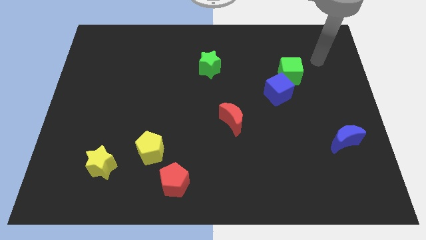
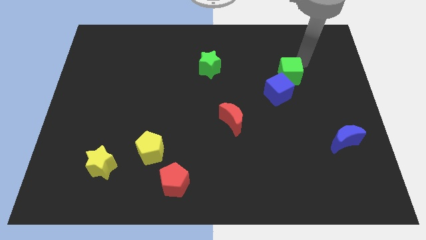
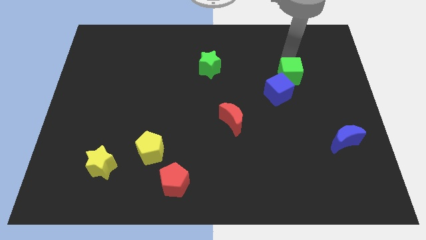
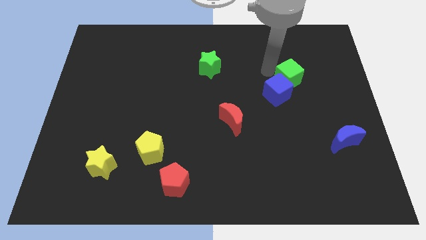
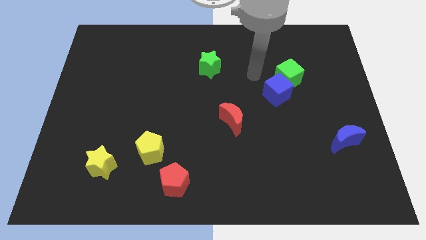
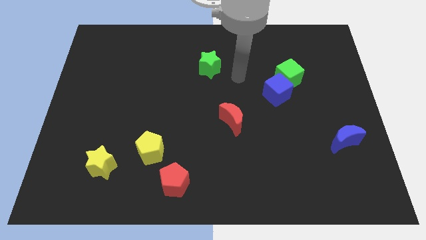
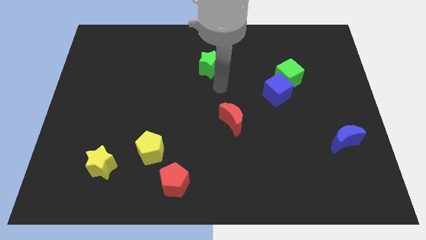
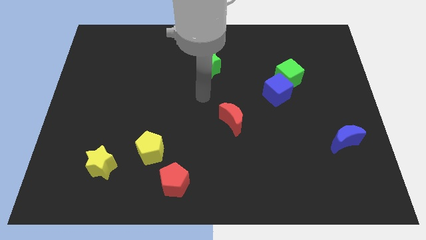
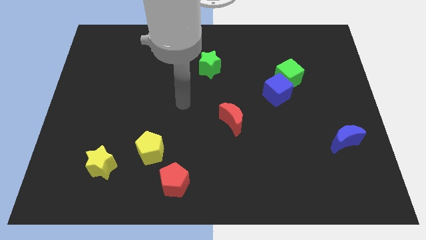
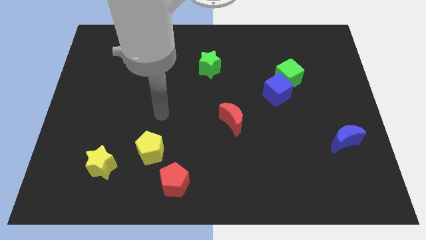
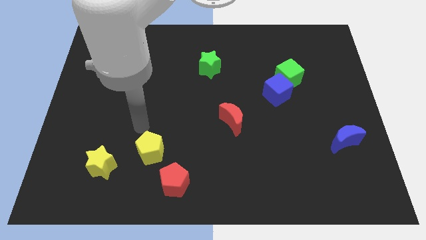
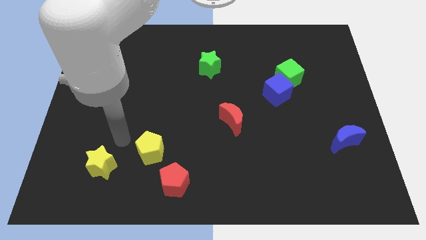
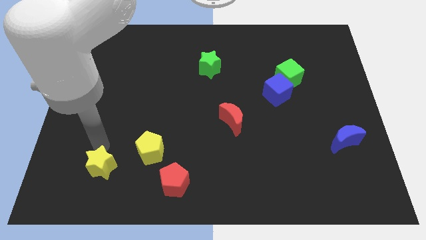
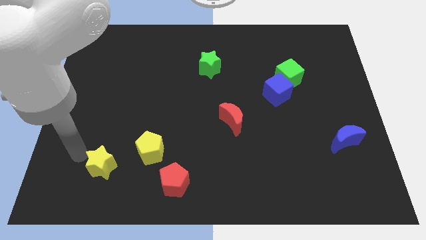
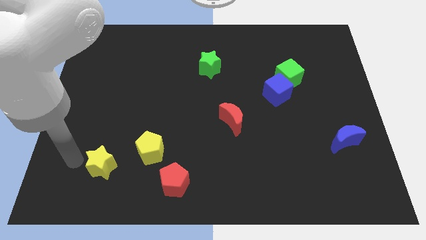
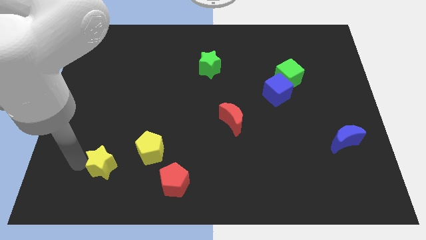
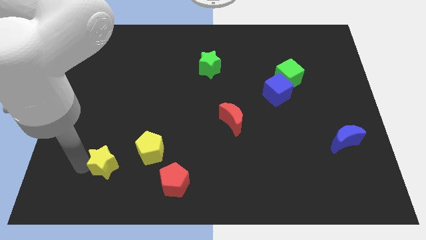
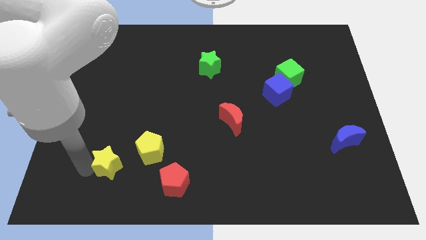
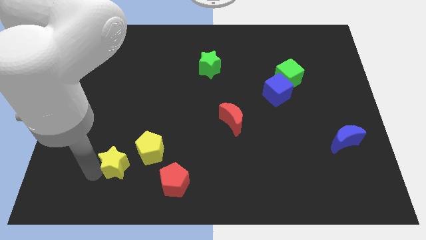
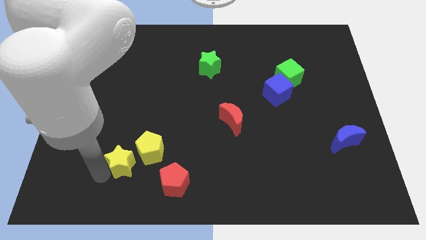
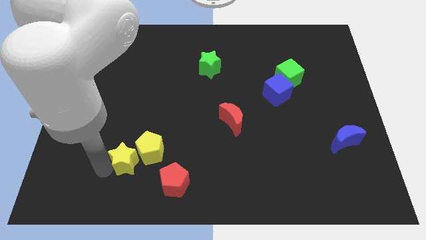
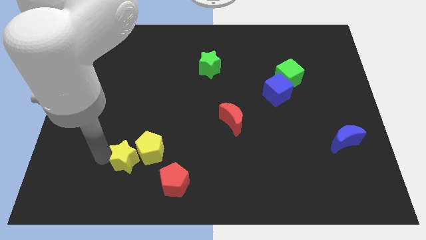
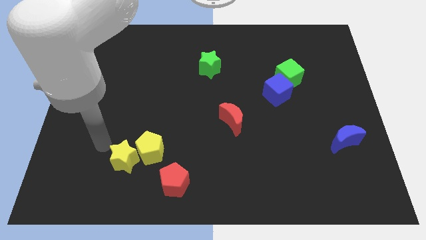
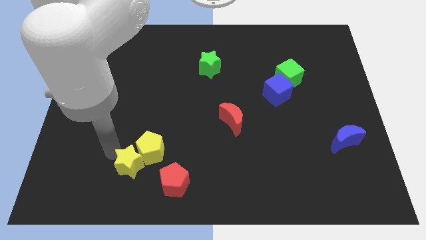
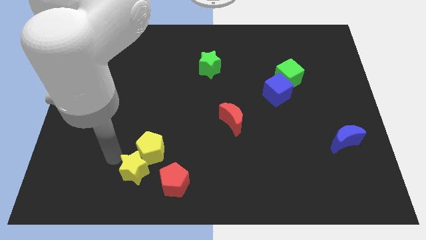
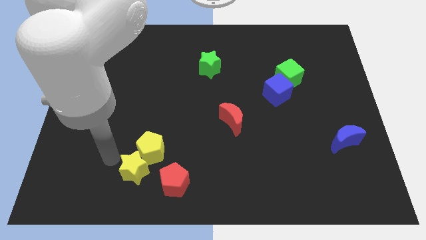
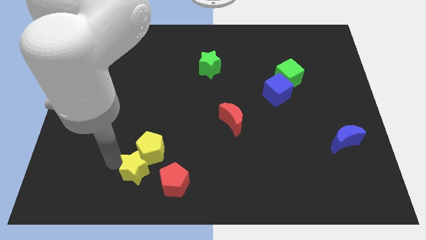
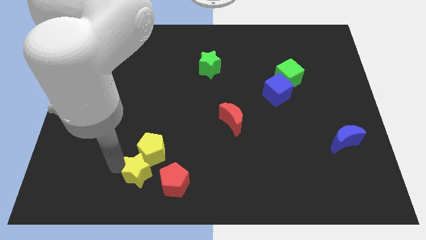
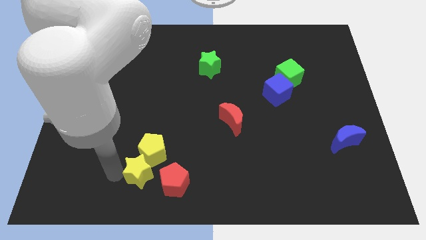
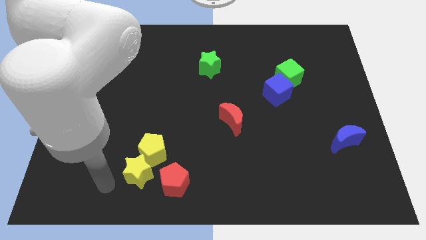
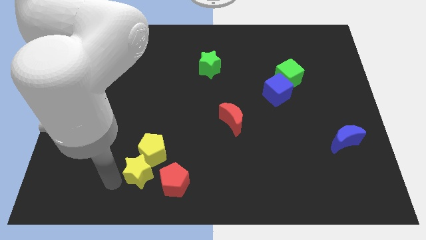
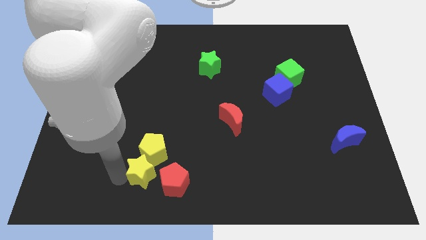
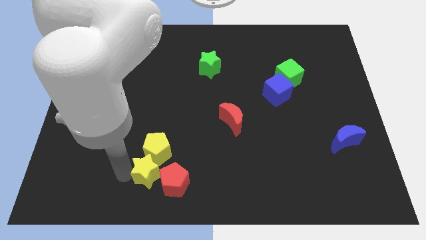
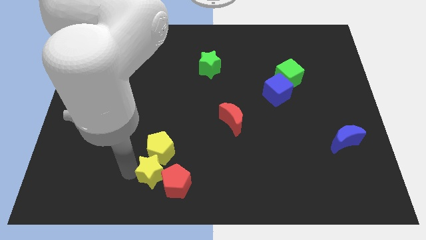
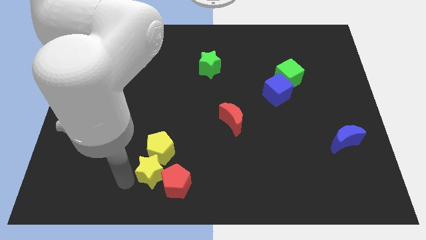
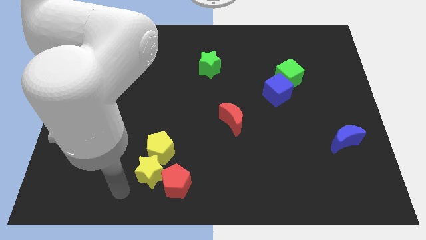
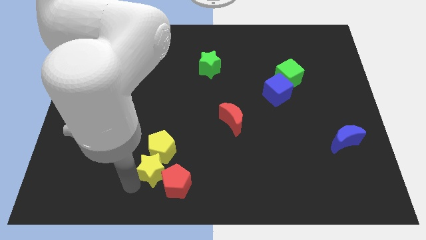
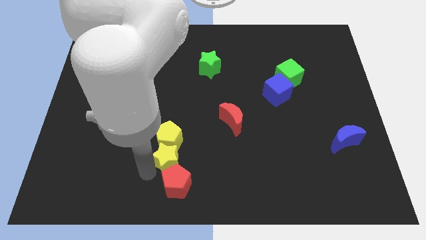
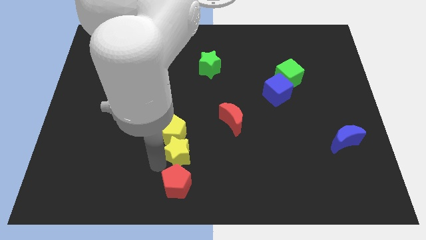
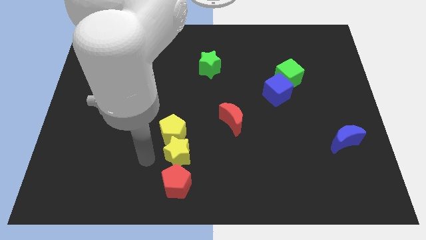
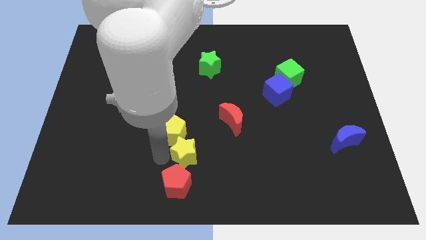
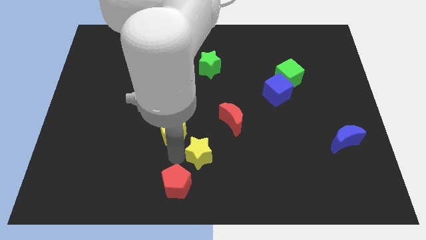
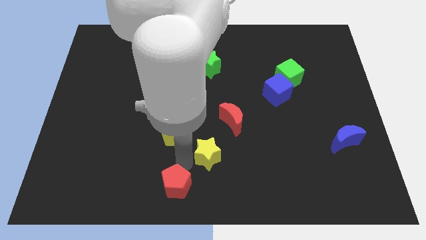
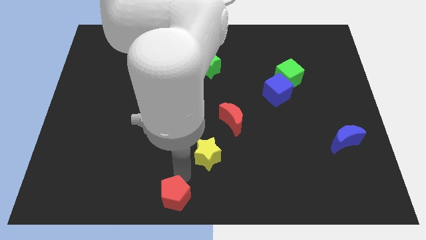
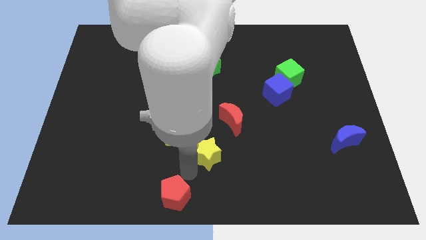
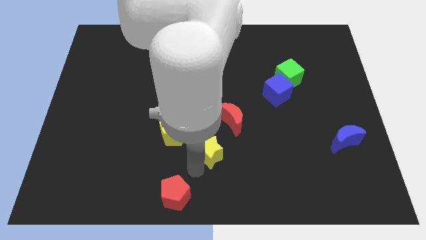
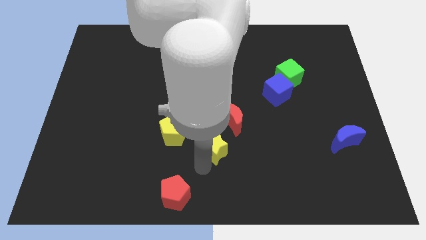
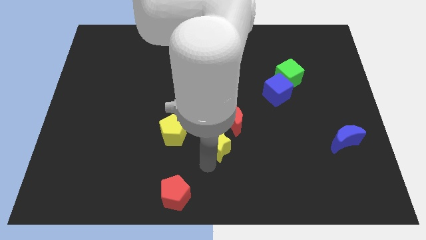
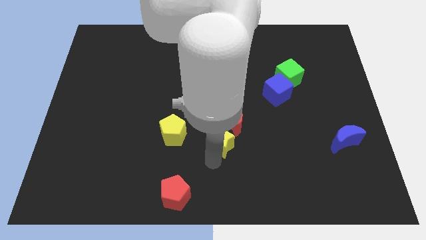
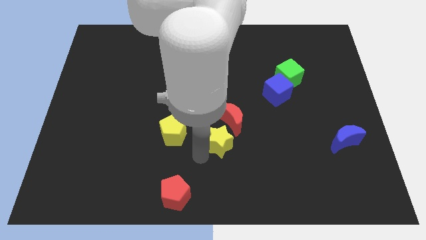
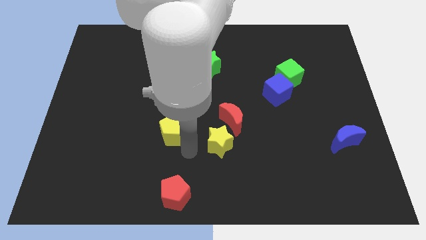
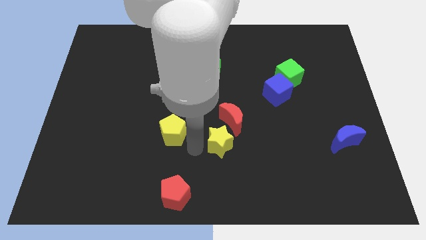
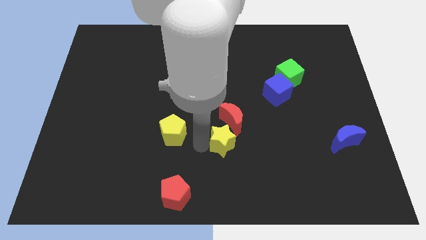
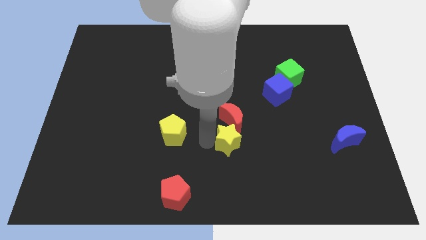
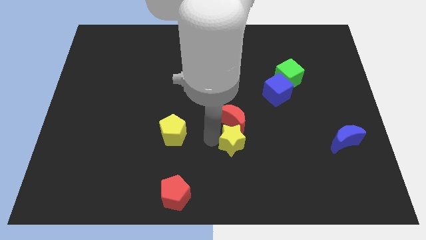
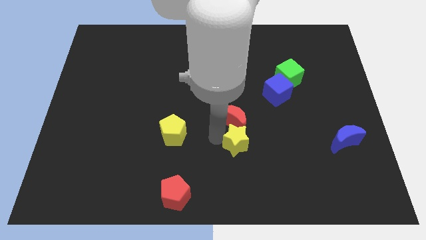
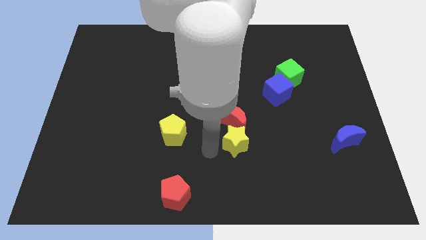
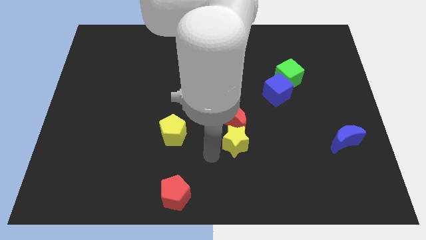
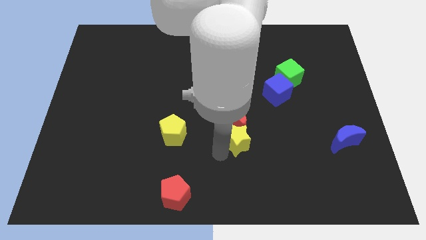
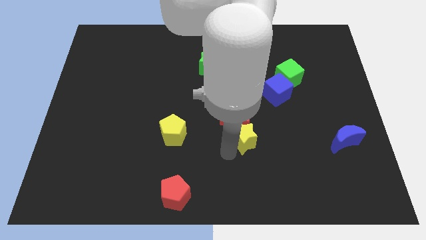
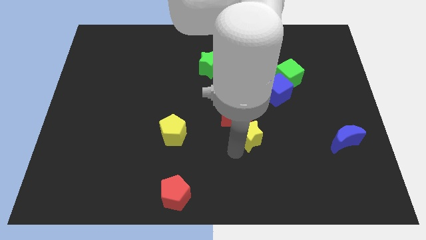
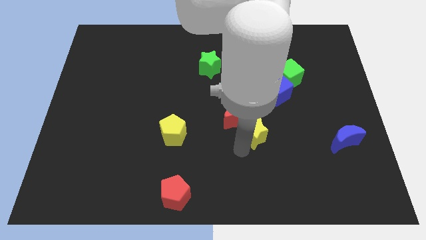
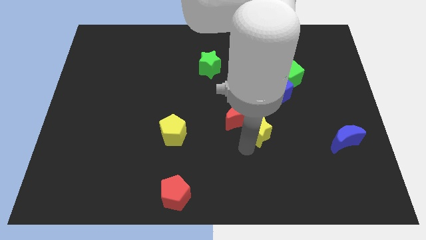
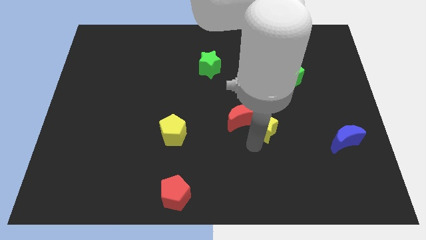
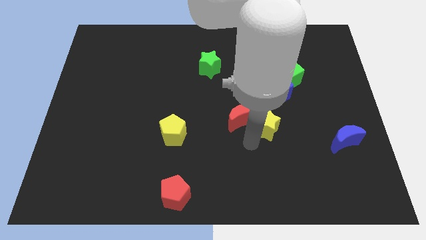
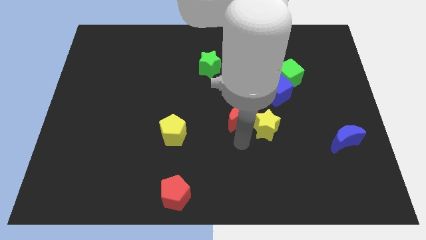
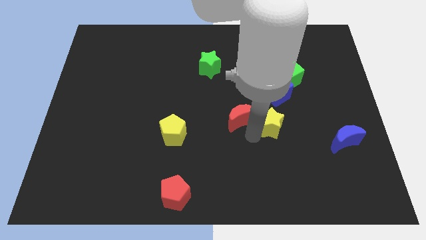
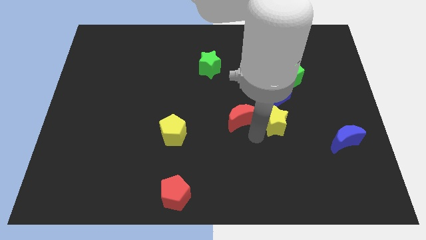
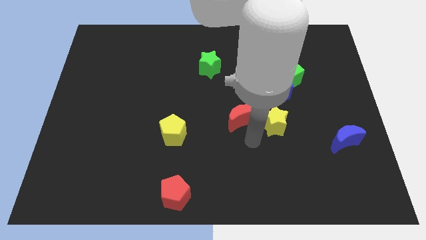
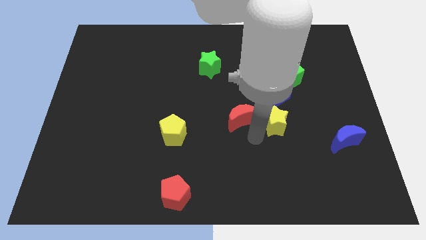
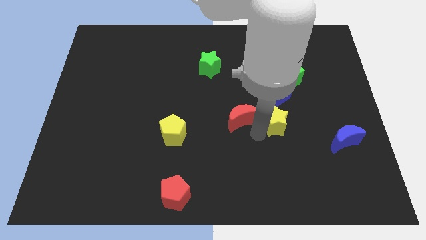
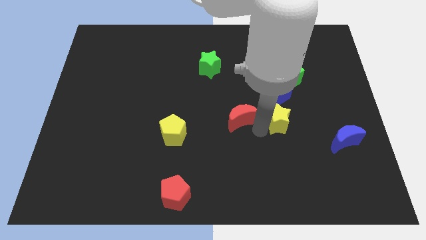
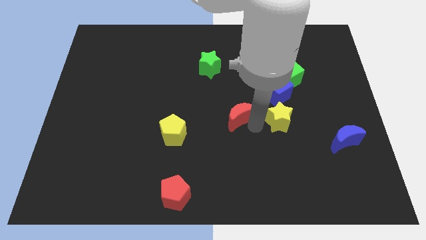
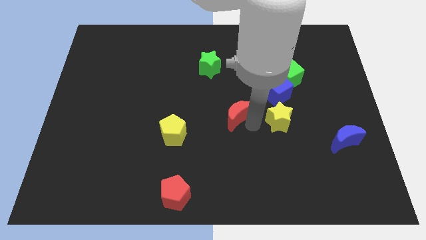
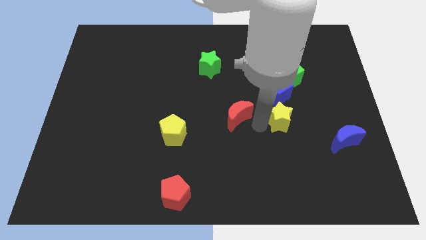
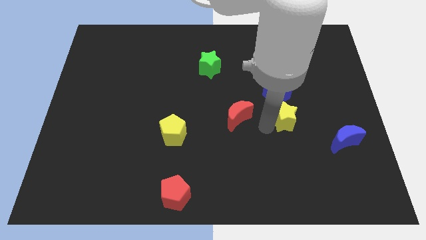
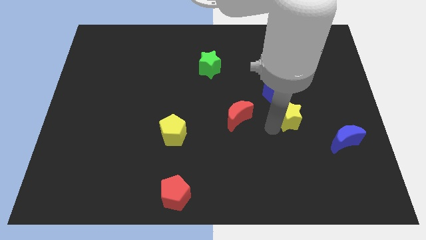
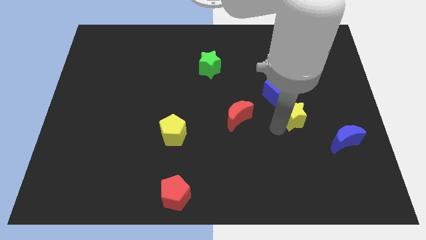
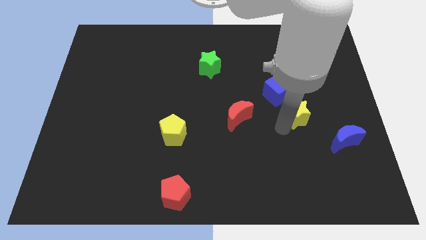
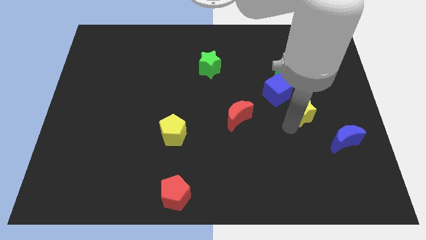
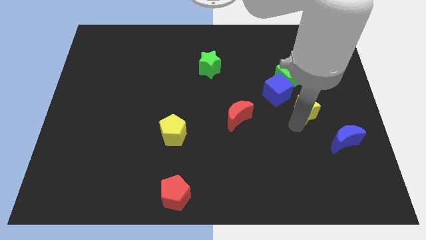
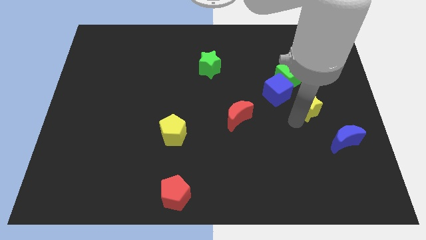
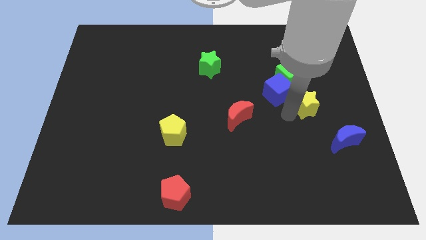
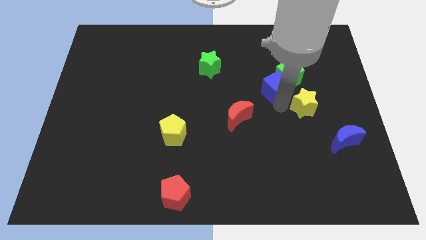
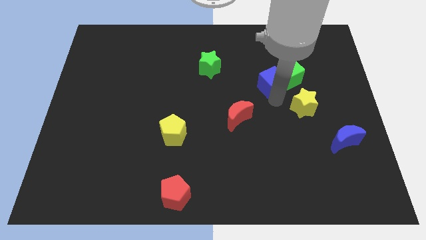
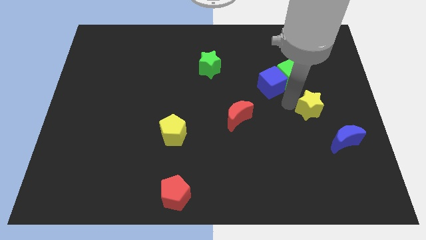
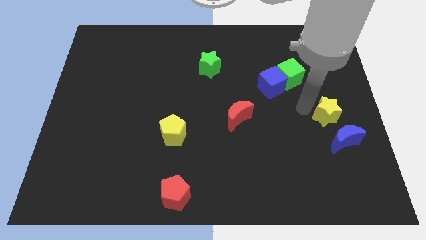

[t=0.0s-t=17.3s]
push the yellow star to the right side
